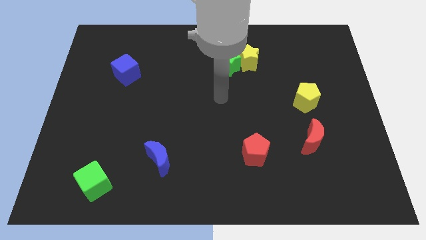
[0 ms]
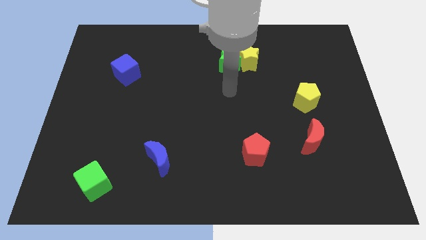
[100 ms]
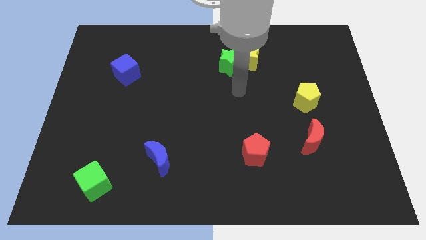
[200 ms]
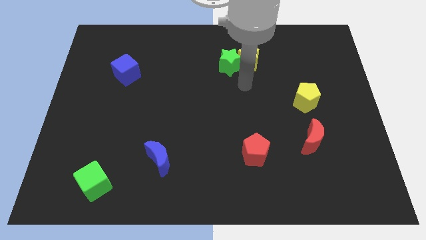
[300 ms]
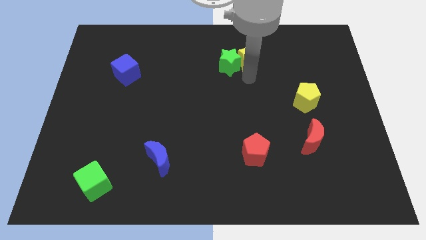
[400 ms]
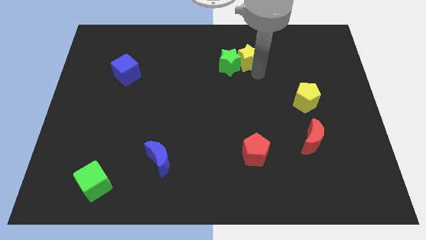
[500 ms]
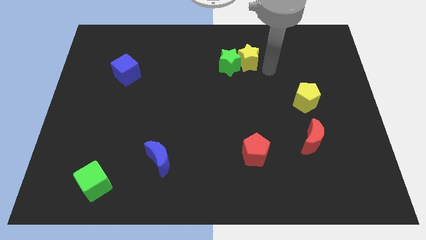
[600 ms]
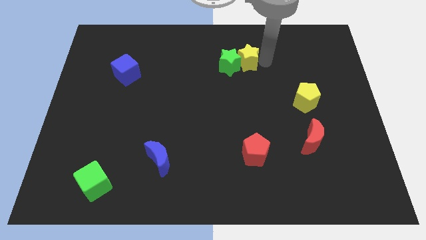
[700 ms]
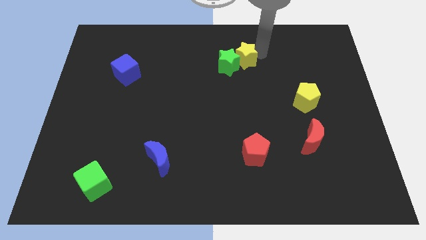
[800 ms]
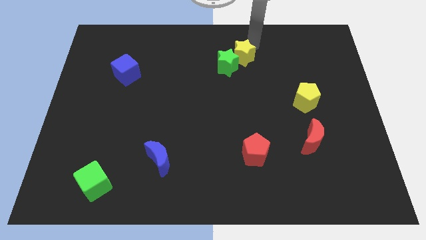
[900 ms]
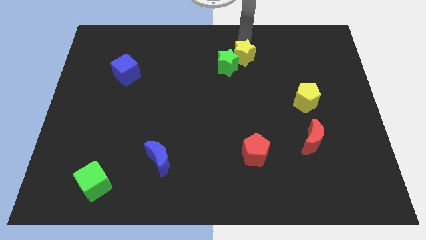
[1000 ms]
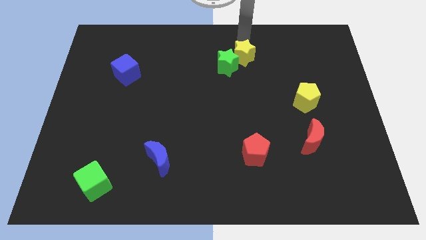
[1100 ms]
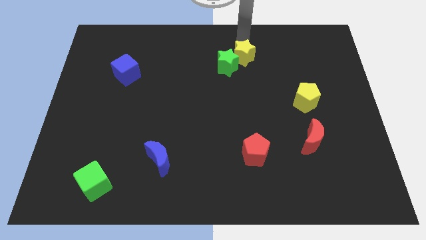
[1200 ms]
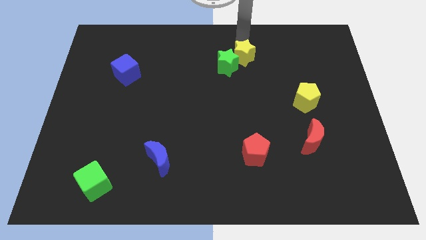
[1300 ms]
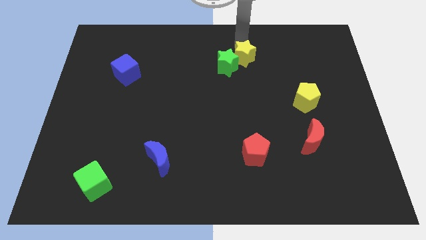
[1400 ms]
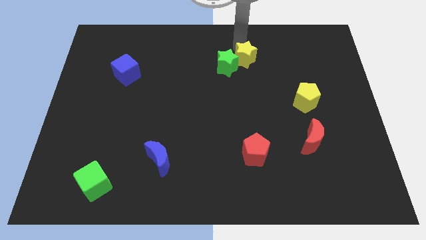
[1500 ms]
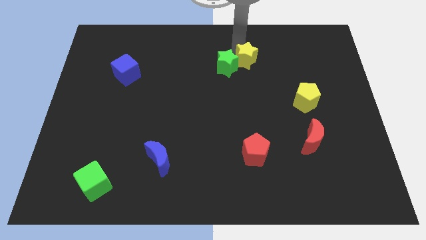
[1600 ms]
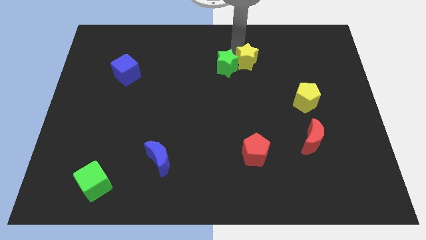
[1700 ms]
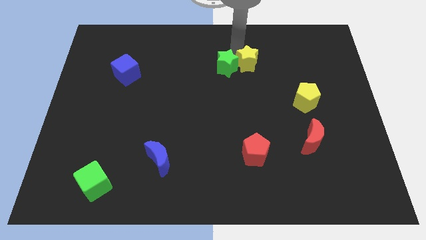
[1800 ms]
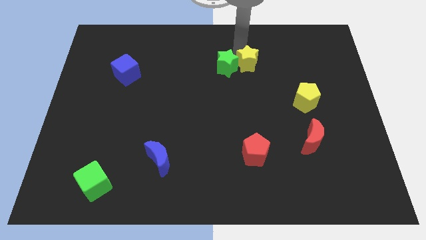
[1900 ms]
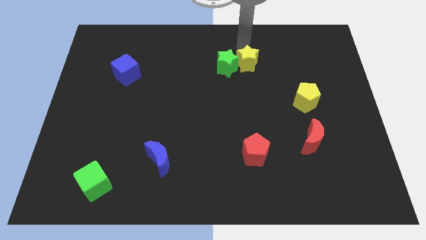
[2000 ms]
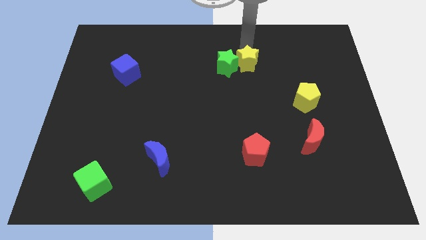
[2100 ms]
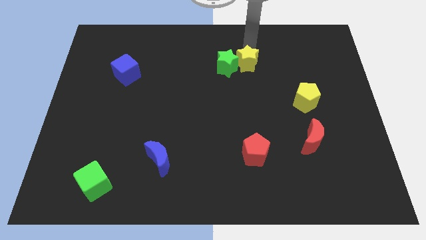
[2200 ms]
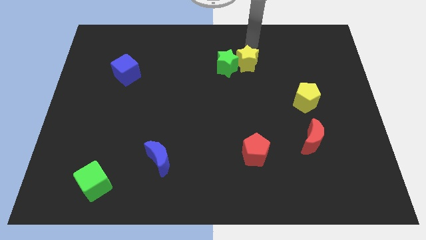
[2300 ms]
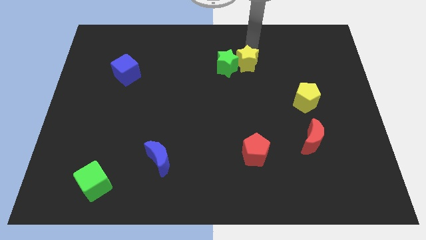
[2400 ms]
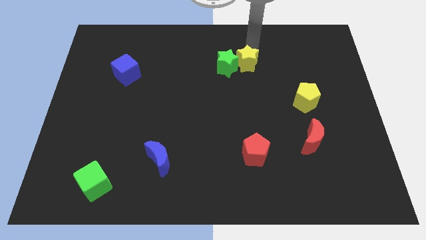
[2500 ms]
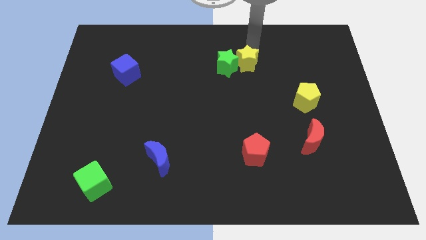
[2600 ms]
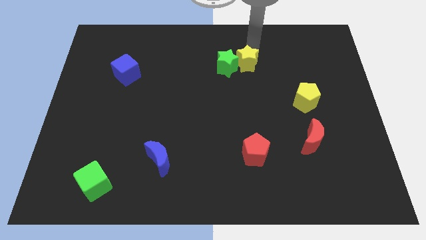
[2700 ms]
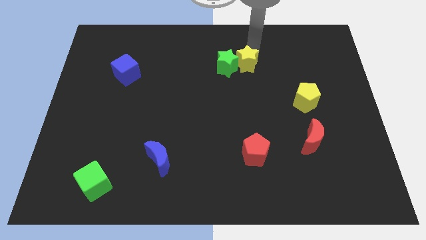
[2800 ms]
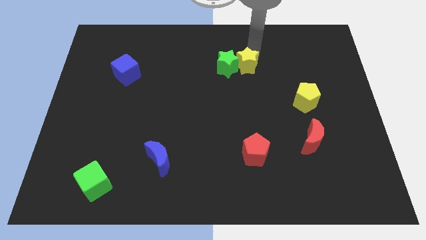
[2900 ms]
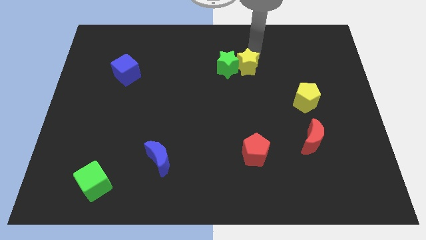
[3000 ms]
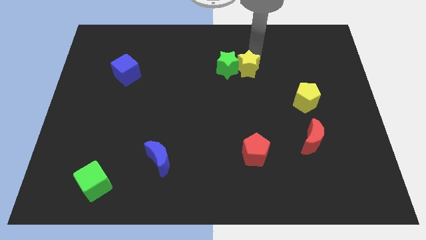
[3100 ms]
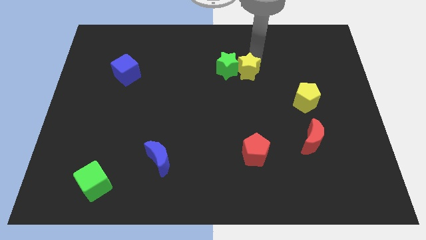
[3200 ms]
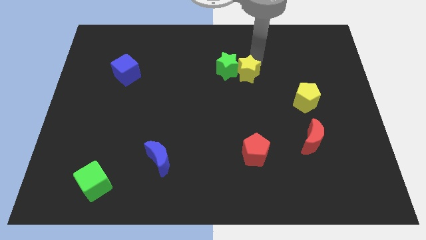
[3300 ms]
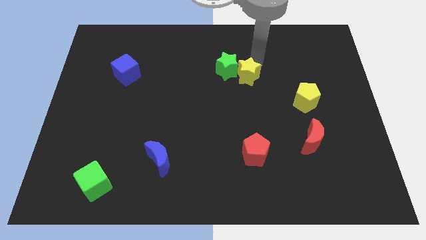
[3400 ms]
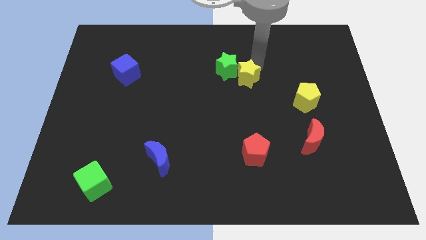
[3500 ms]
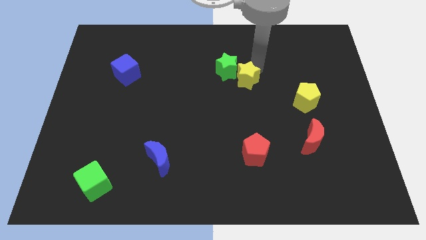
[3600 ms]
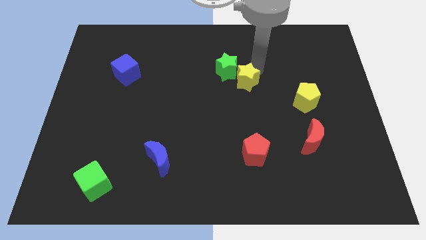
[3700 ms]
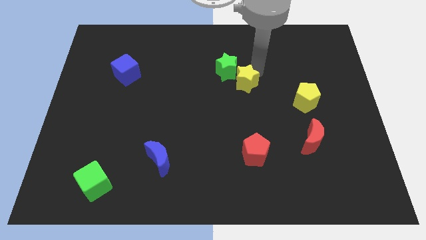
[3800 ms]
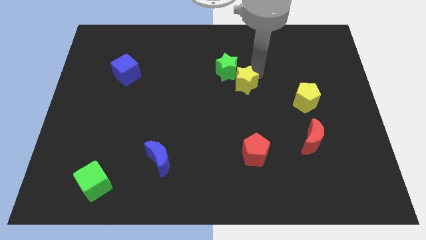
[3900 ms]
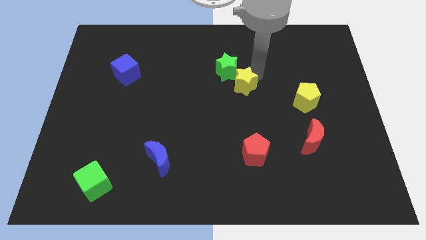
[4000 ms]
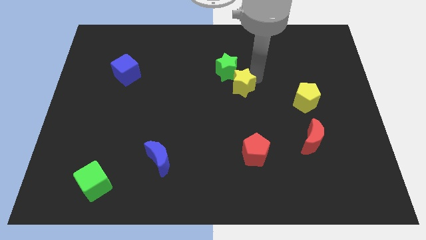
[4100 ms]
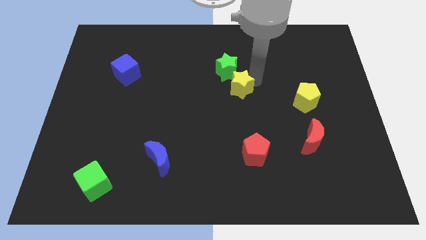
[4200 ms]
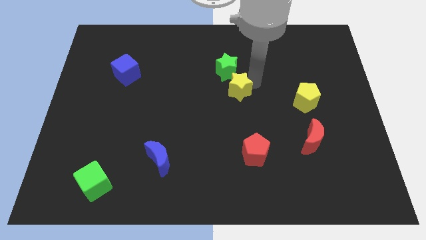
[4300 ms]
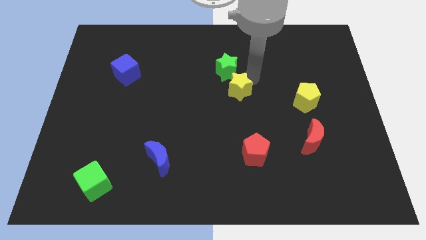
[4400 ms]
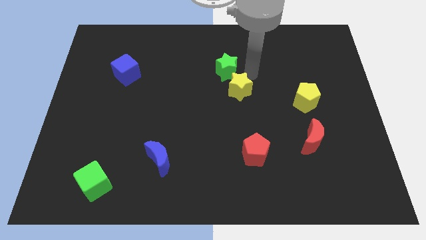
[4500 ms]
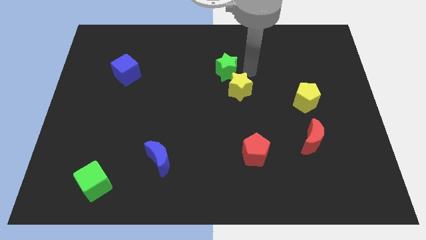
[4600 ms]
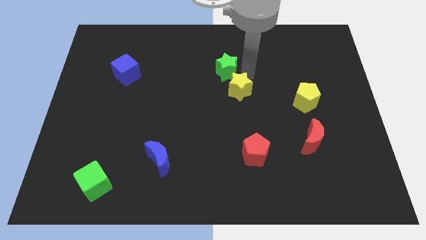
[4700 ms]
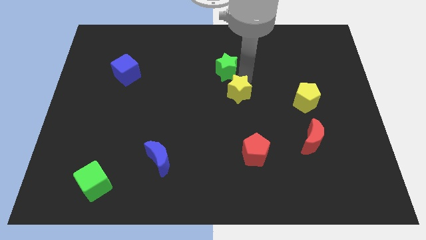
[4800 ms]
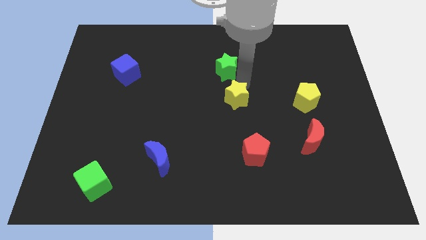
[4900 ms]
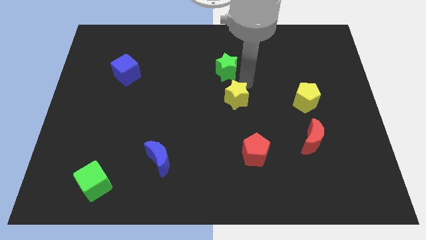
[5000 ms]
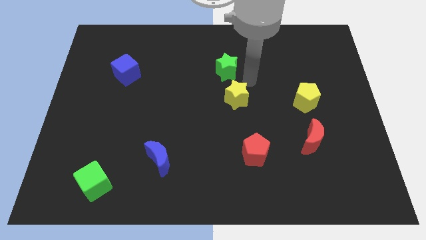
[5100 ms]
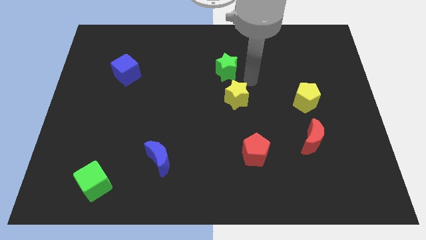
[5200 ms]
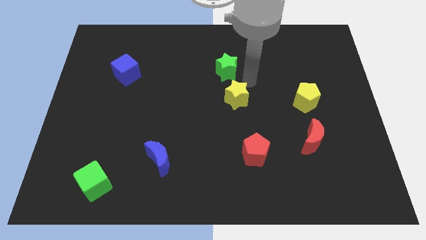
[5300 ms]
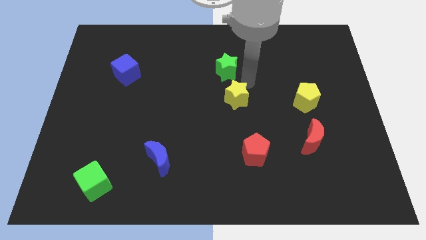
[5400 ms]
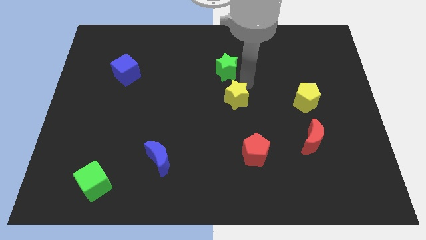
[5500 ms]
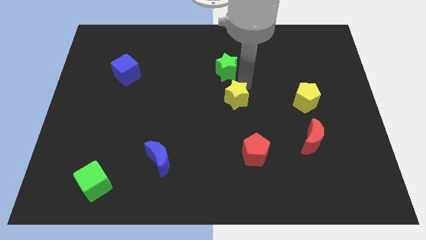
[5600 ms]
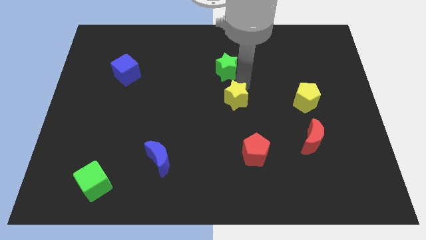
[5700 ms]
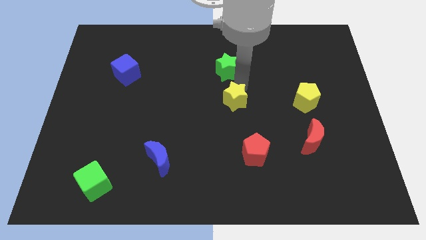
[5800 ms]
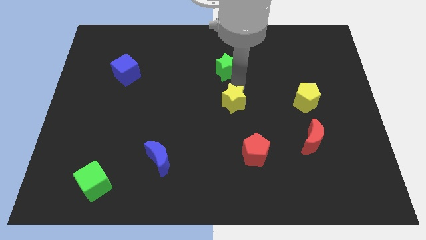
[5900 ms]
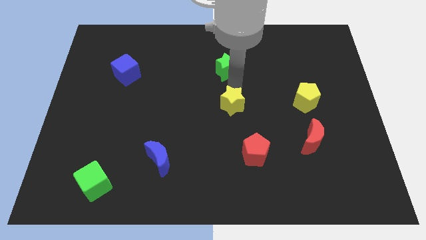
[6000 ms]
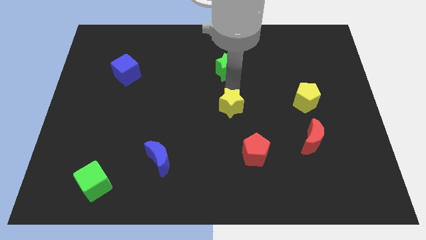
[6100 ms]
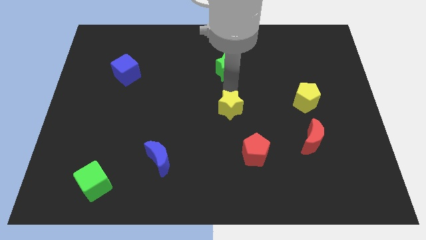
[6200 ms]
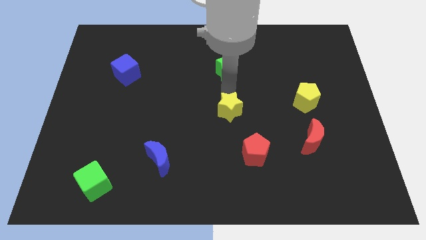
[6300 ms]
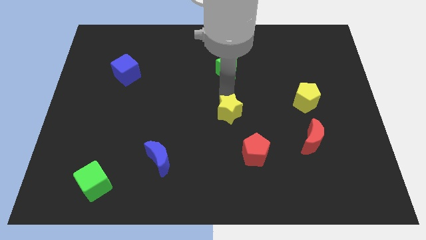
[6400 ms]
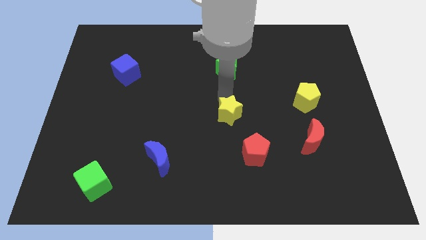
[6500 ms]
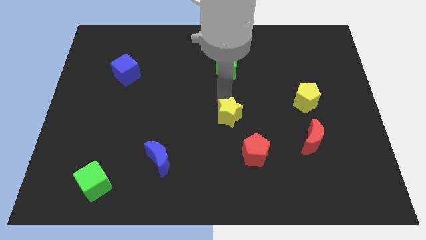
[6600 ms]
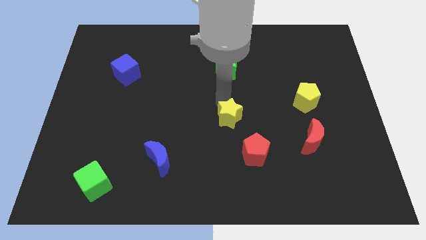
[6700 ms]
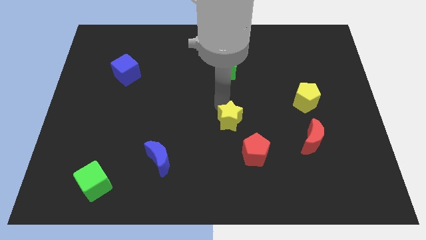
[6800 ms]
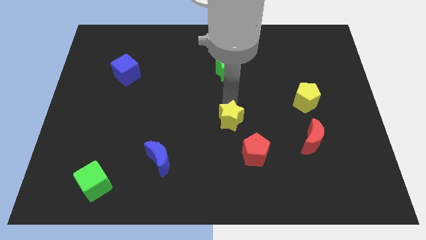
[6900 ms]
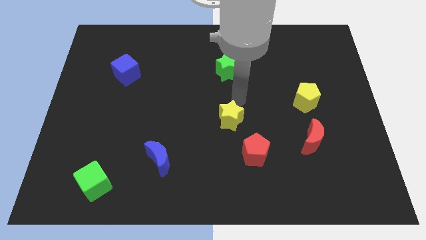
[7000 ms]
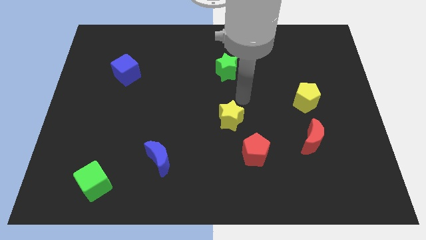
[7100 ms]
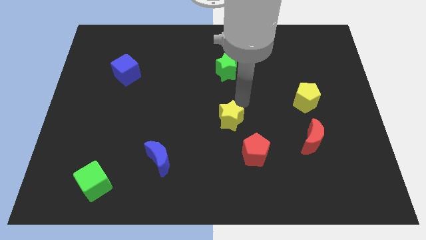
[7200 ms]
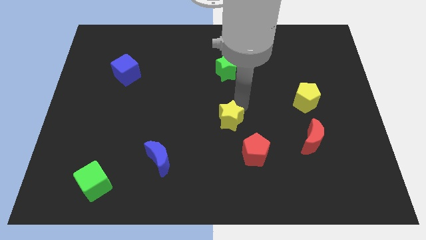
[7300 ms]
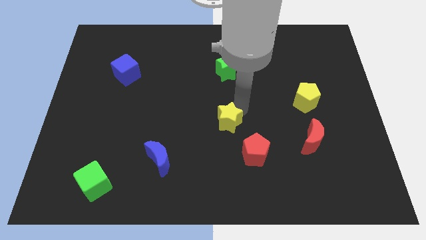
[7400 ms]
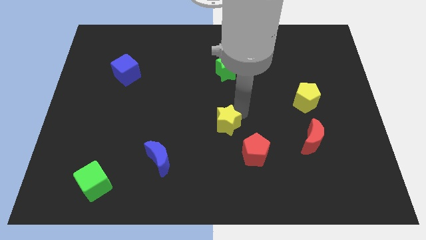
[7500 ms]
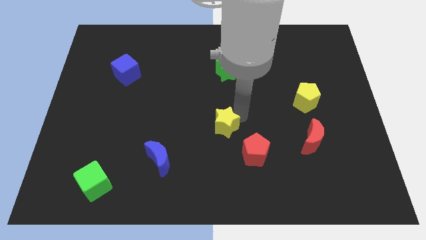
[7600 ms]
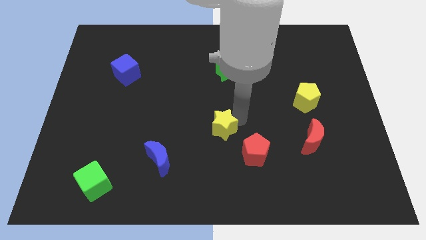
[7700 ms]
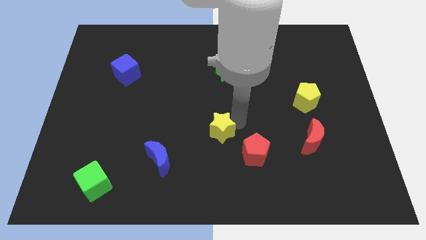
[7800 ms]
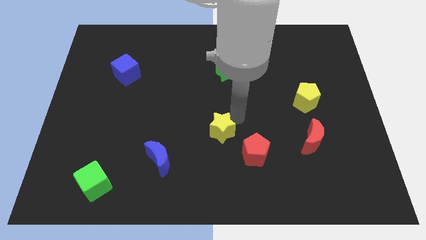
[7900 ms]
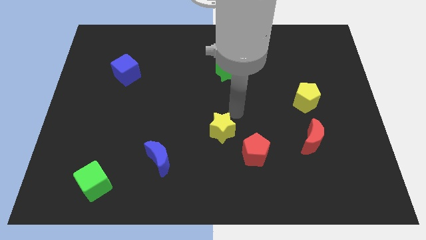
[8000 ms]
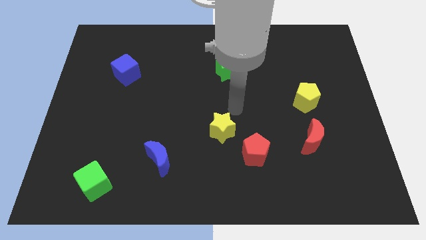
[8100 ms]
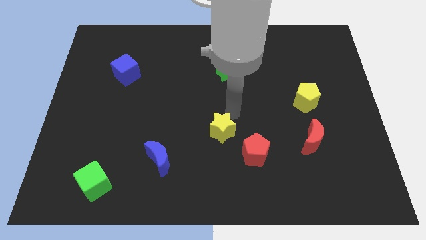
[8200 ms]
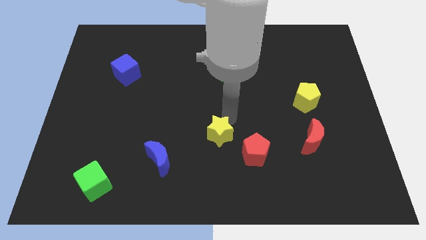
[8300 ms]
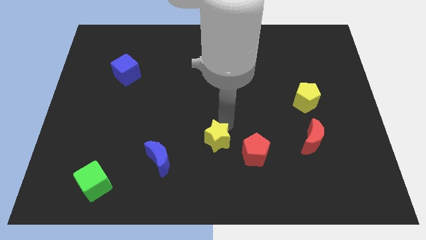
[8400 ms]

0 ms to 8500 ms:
push the yellow star to the left of the red pentagon
